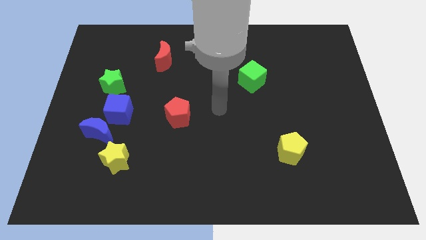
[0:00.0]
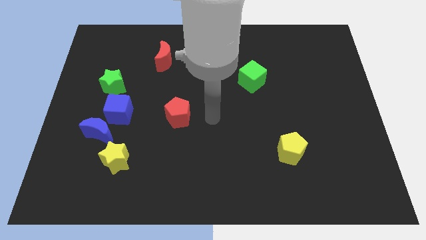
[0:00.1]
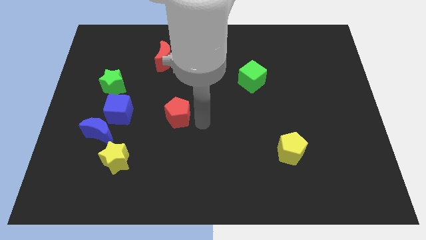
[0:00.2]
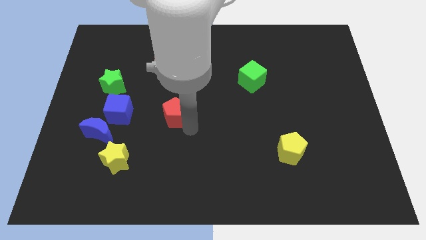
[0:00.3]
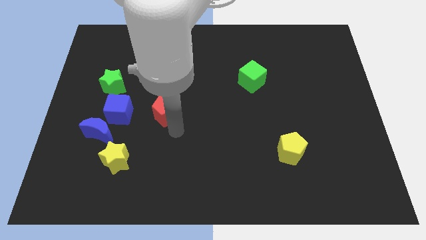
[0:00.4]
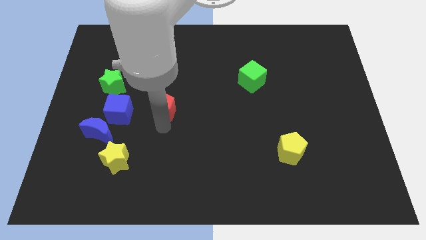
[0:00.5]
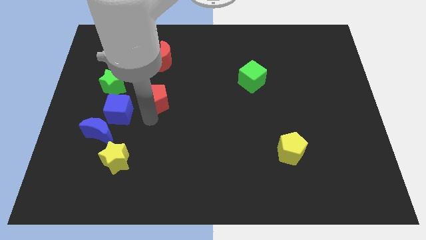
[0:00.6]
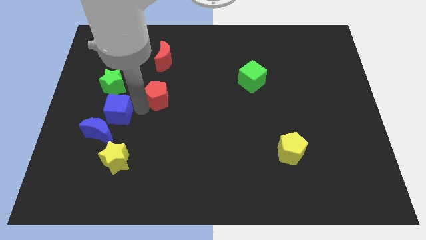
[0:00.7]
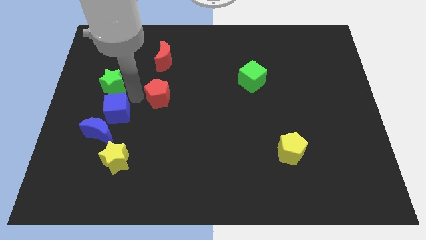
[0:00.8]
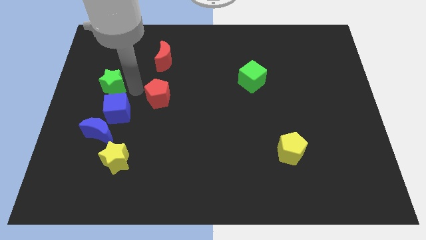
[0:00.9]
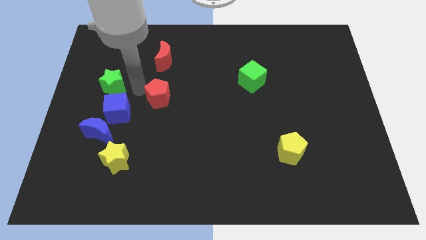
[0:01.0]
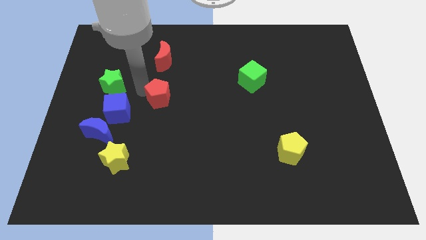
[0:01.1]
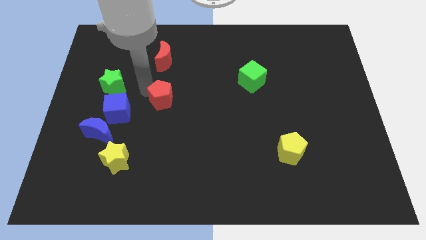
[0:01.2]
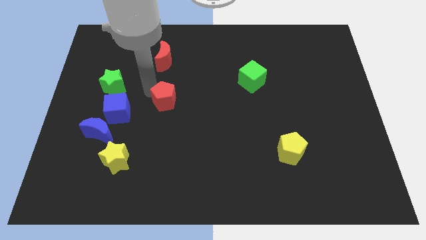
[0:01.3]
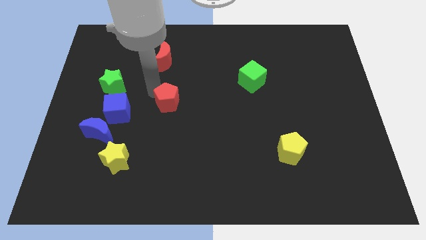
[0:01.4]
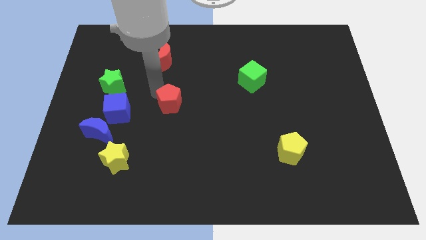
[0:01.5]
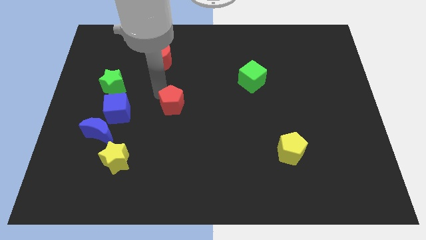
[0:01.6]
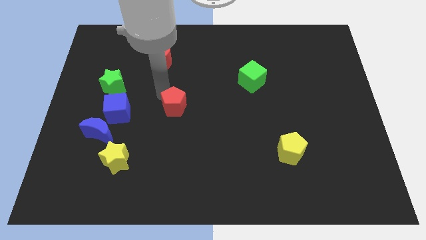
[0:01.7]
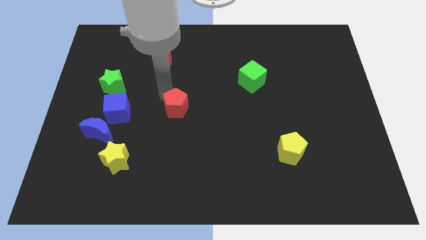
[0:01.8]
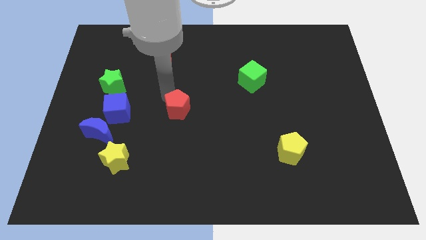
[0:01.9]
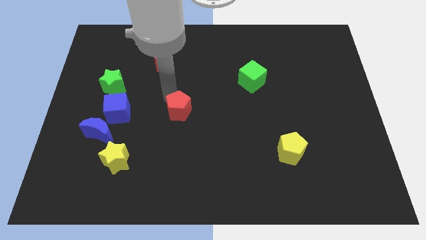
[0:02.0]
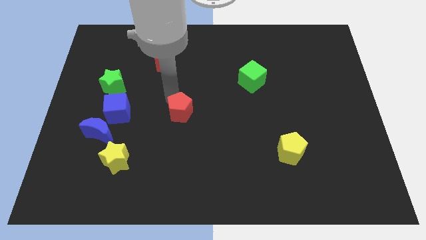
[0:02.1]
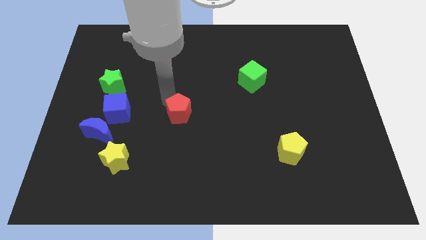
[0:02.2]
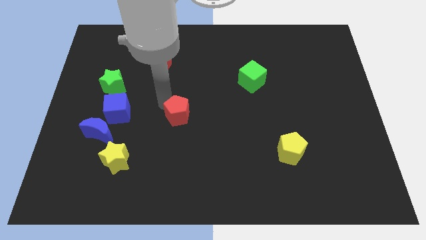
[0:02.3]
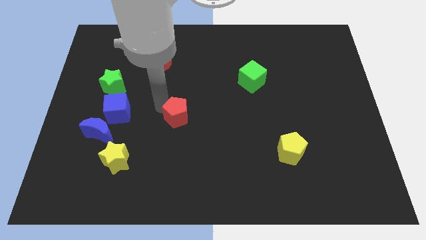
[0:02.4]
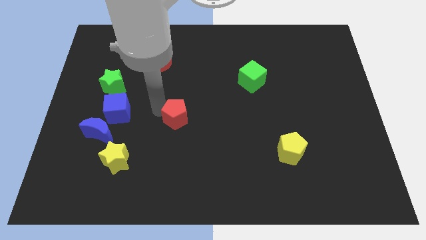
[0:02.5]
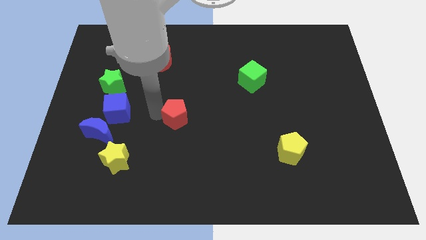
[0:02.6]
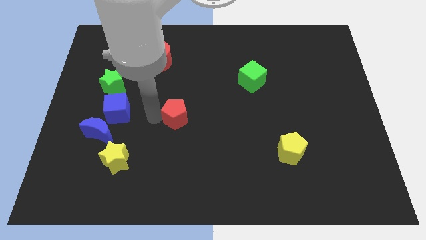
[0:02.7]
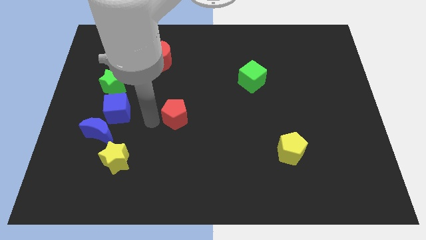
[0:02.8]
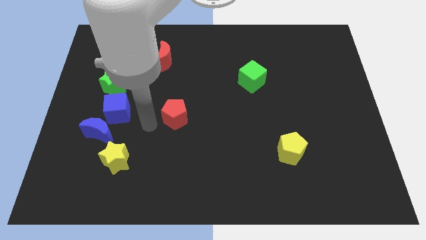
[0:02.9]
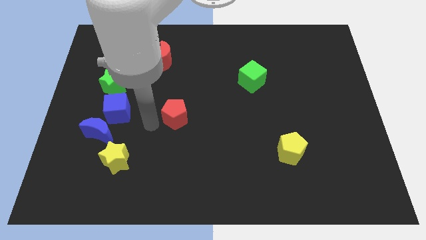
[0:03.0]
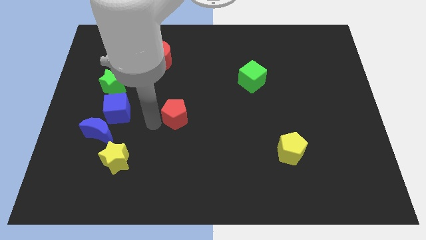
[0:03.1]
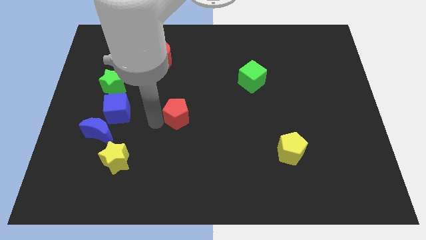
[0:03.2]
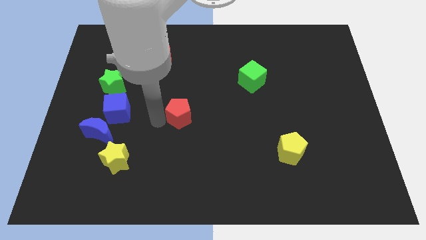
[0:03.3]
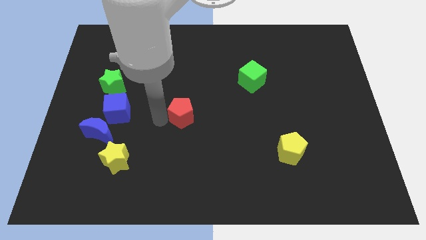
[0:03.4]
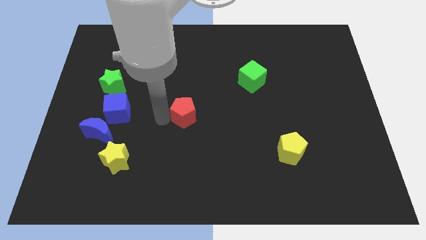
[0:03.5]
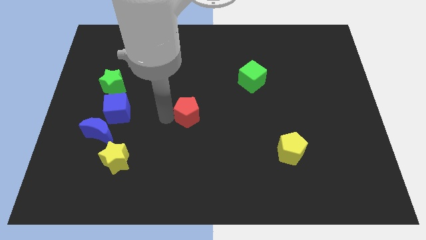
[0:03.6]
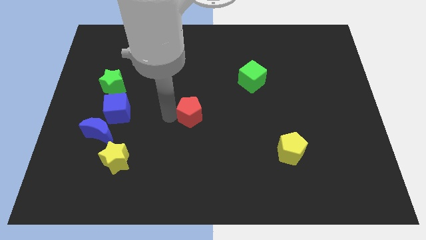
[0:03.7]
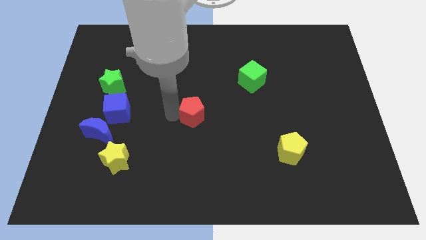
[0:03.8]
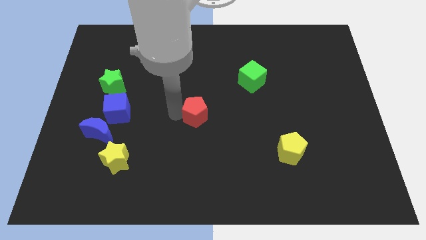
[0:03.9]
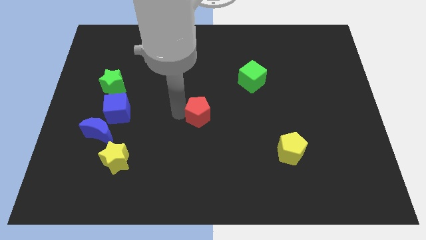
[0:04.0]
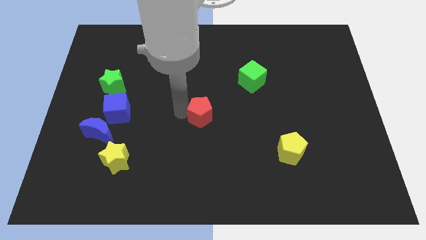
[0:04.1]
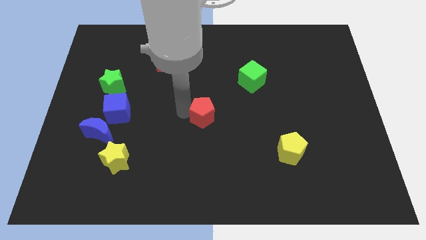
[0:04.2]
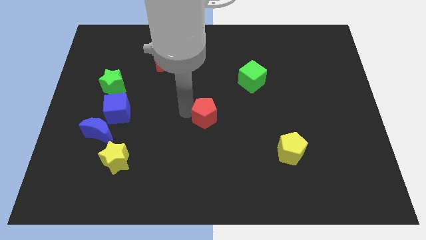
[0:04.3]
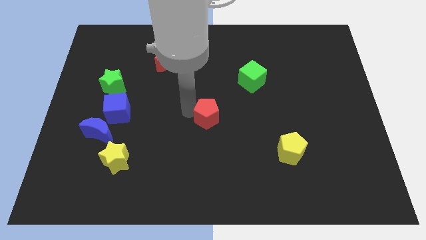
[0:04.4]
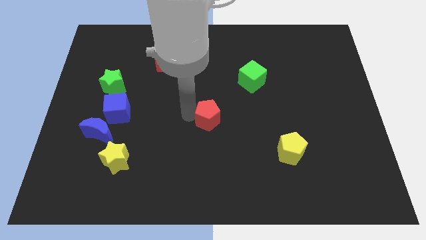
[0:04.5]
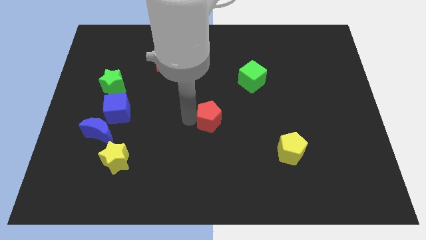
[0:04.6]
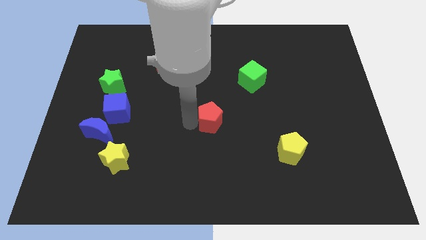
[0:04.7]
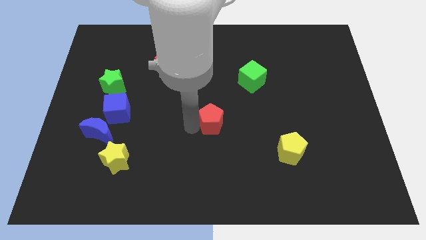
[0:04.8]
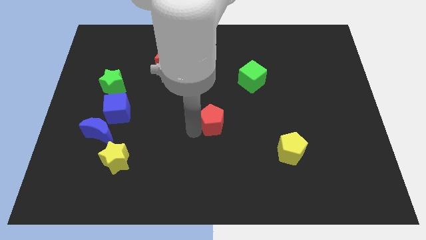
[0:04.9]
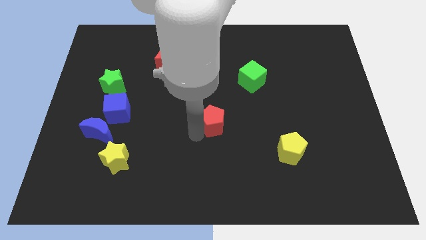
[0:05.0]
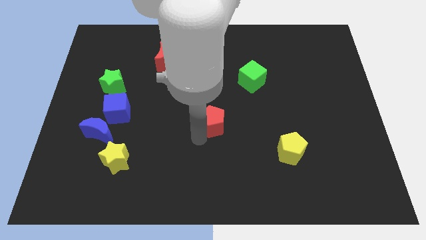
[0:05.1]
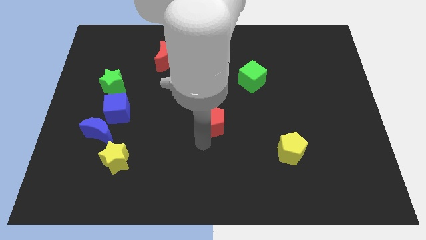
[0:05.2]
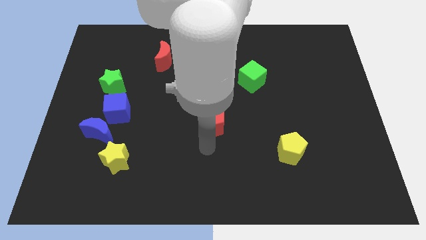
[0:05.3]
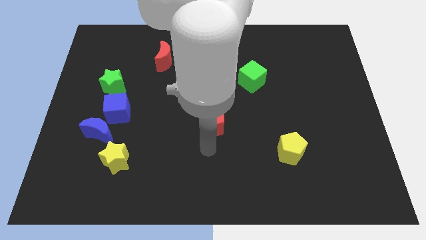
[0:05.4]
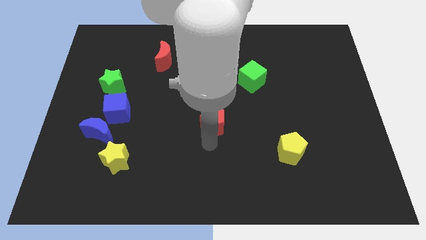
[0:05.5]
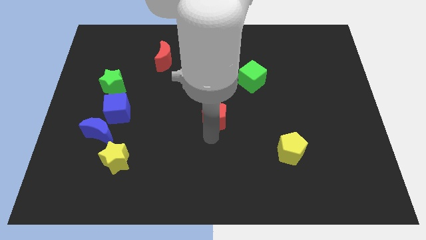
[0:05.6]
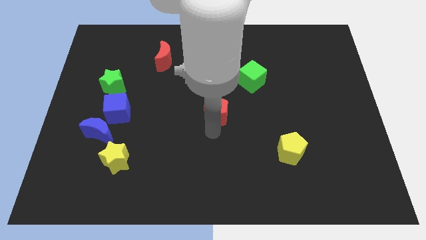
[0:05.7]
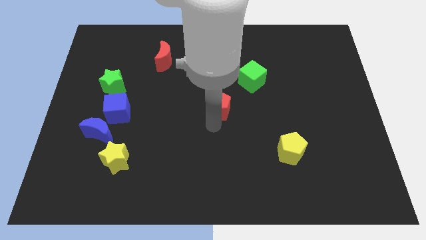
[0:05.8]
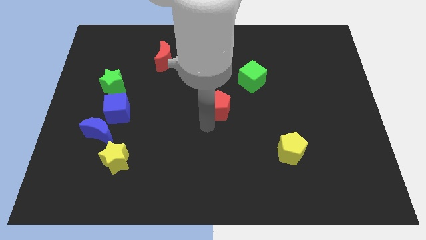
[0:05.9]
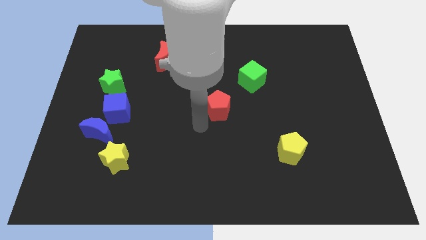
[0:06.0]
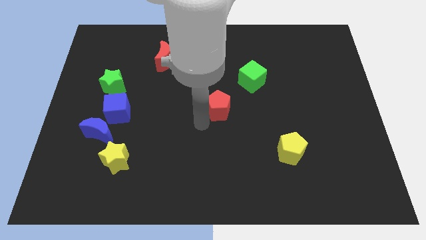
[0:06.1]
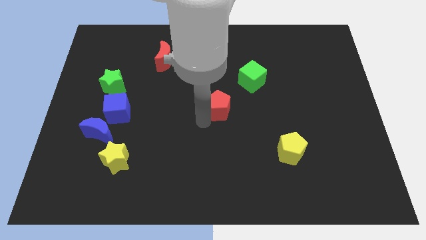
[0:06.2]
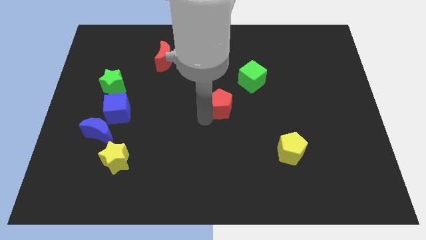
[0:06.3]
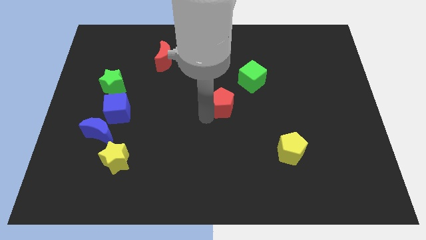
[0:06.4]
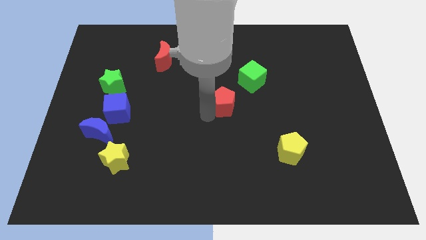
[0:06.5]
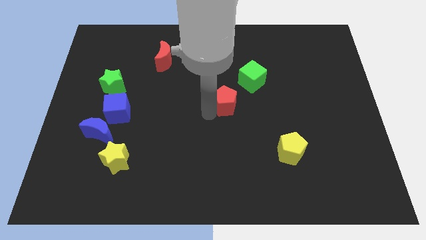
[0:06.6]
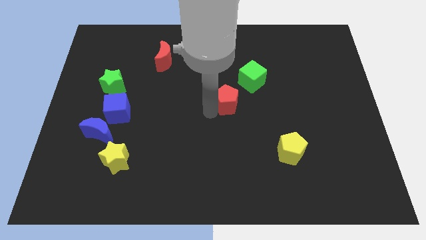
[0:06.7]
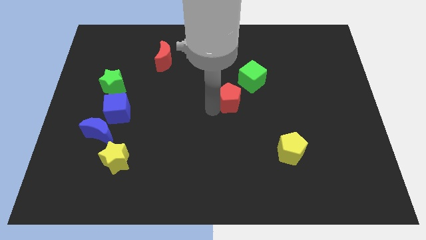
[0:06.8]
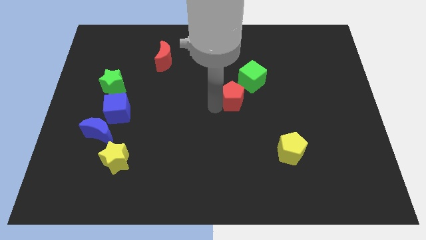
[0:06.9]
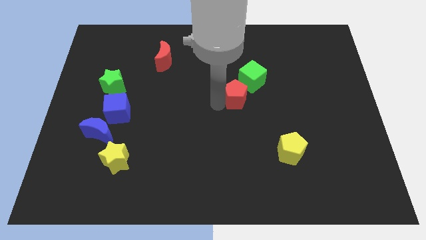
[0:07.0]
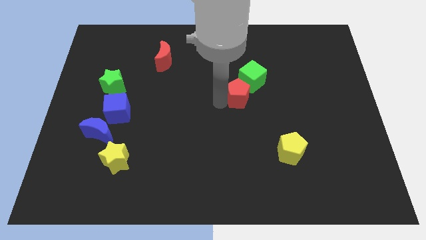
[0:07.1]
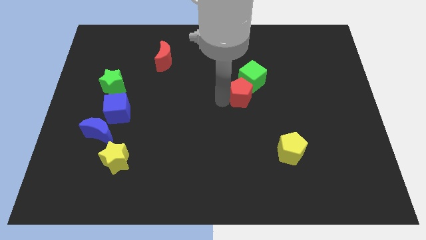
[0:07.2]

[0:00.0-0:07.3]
push the red pentagon to the green cube

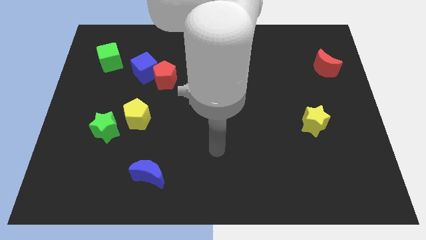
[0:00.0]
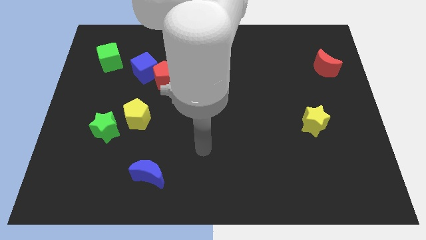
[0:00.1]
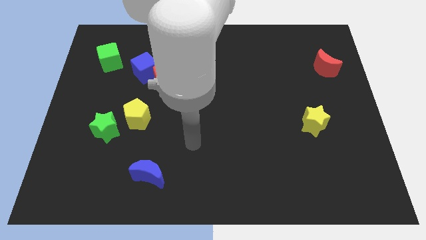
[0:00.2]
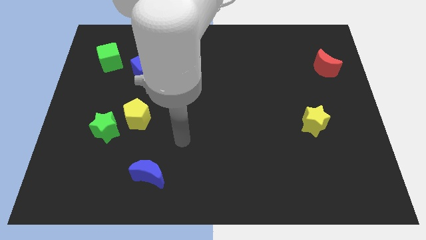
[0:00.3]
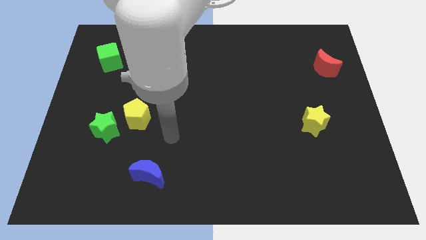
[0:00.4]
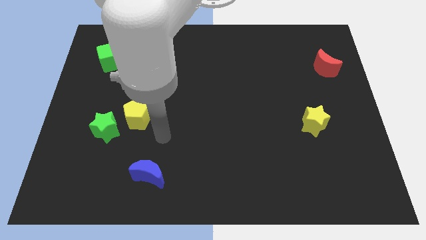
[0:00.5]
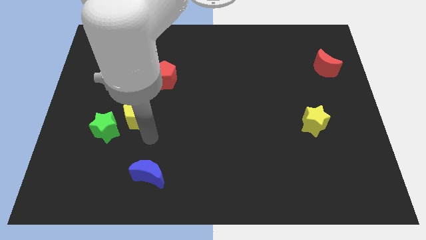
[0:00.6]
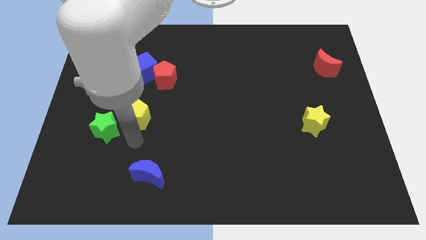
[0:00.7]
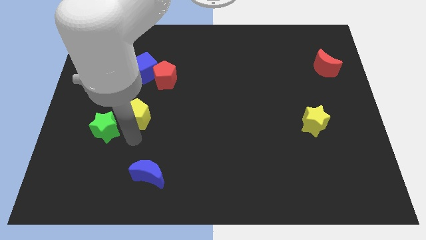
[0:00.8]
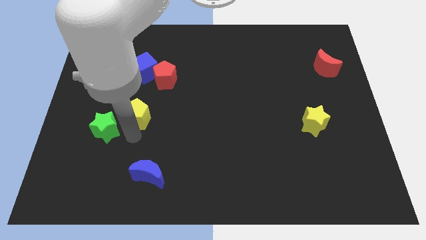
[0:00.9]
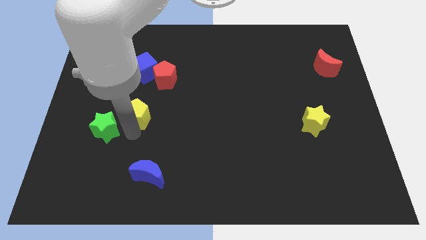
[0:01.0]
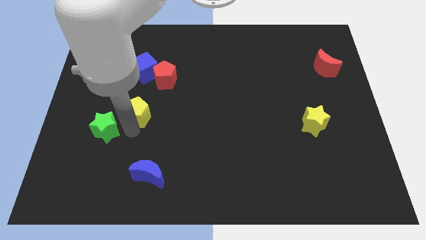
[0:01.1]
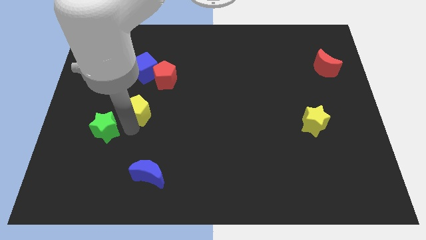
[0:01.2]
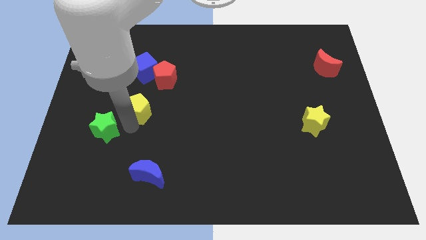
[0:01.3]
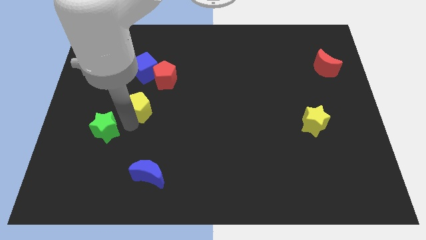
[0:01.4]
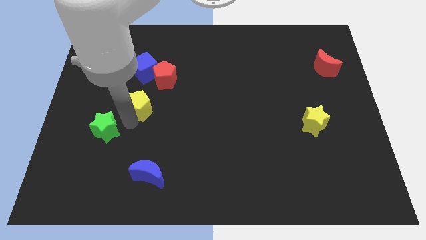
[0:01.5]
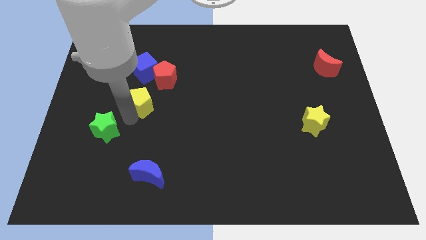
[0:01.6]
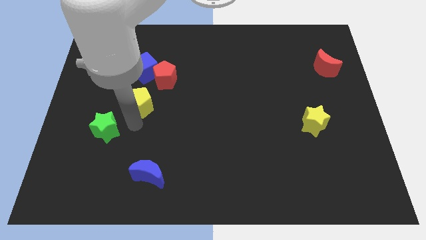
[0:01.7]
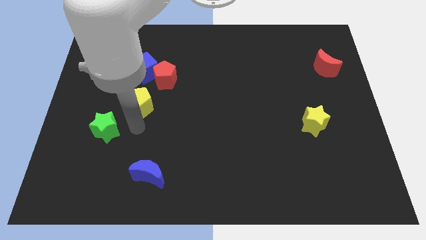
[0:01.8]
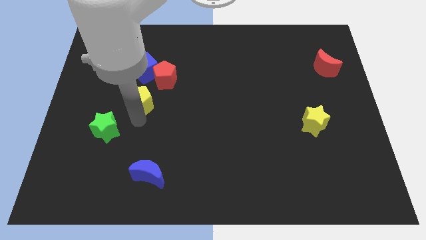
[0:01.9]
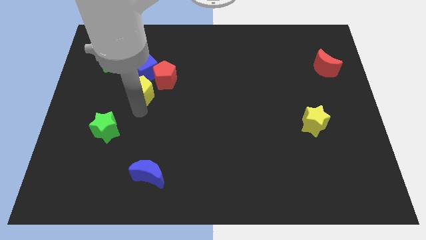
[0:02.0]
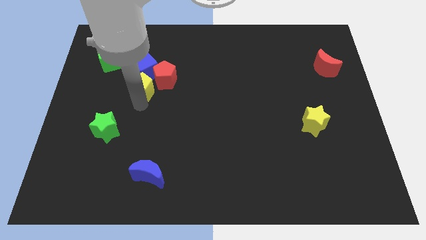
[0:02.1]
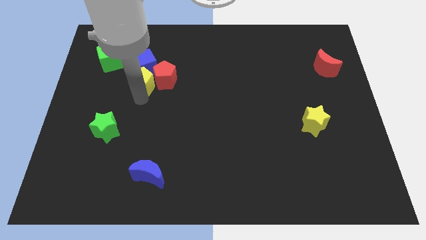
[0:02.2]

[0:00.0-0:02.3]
move the yellow pentagon to the blue cube
